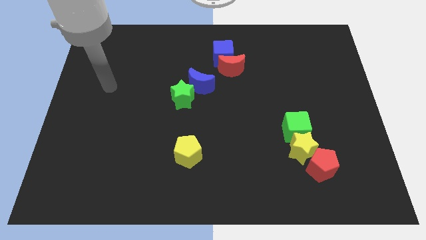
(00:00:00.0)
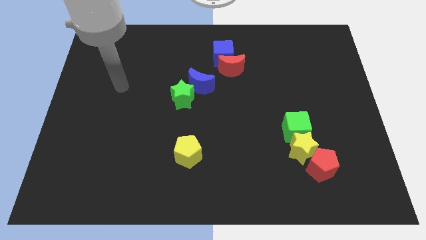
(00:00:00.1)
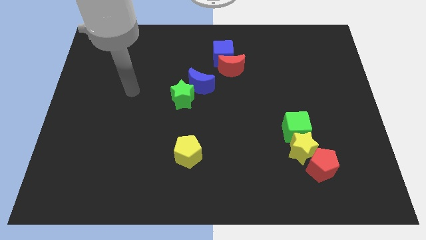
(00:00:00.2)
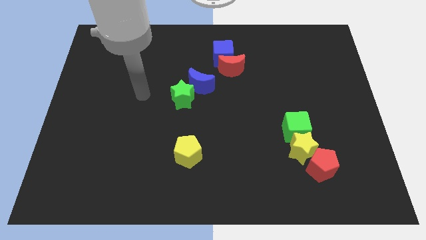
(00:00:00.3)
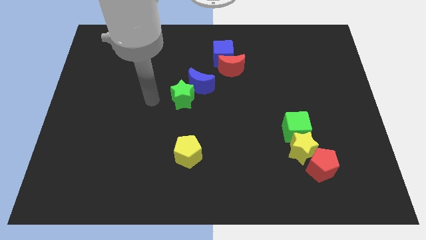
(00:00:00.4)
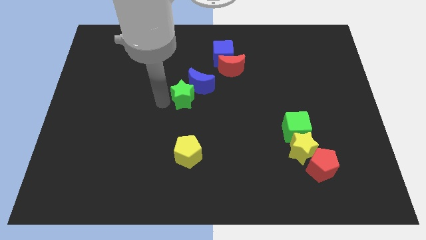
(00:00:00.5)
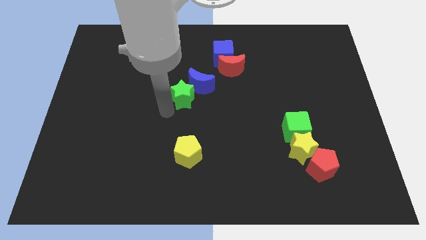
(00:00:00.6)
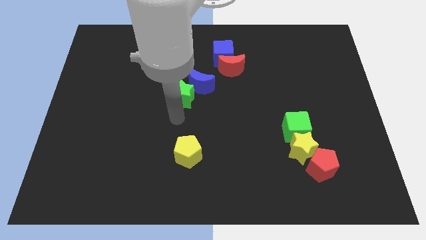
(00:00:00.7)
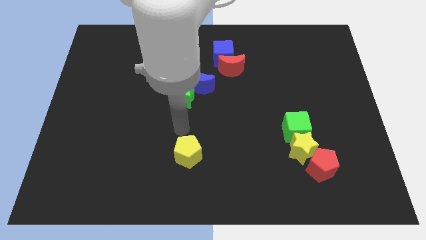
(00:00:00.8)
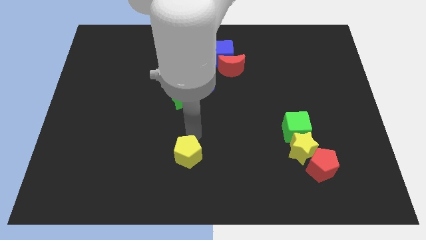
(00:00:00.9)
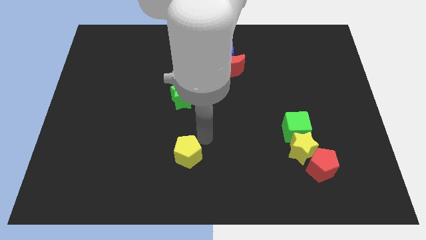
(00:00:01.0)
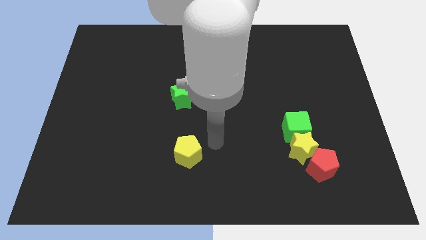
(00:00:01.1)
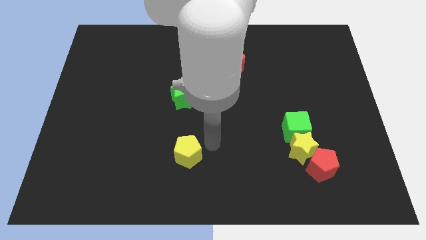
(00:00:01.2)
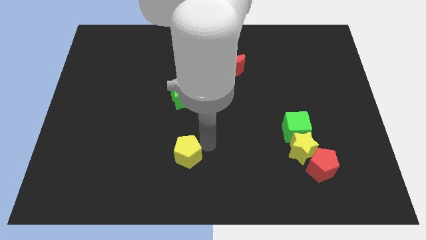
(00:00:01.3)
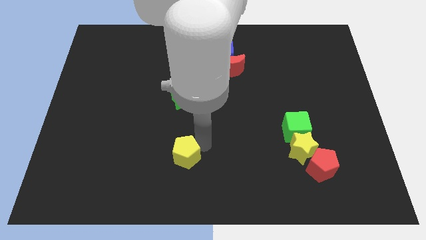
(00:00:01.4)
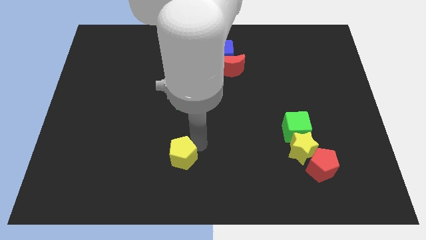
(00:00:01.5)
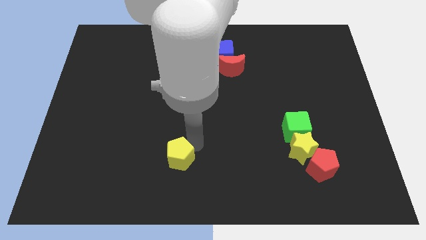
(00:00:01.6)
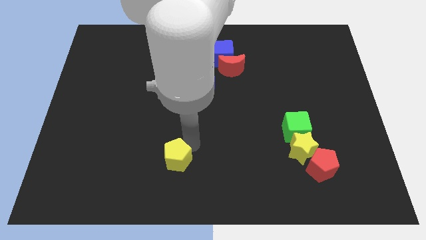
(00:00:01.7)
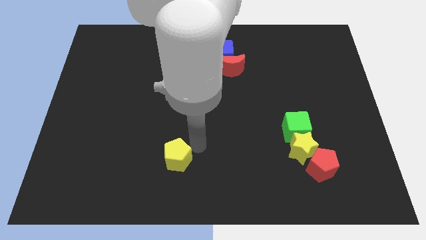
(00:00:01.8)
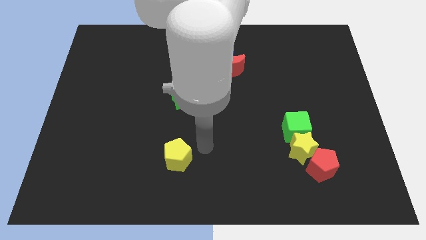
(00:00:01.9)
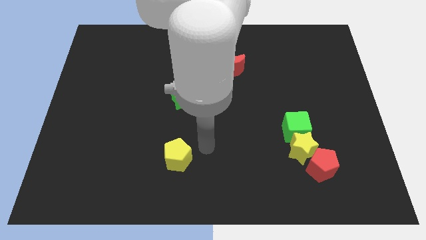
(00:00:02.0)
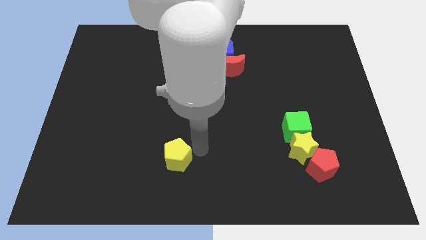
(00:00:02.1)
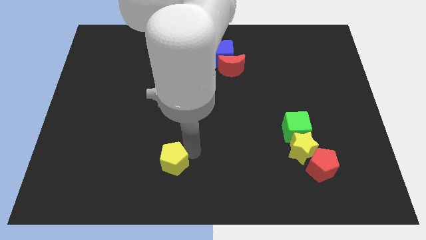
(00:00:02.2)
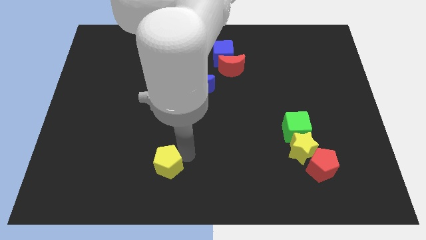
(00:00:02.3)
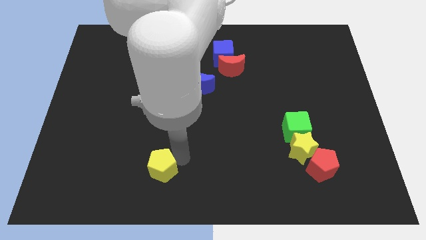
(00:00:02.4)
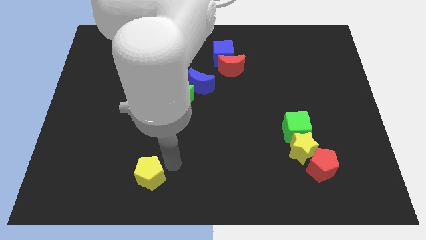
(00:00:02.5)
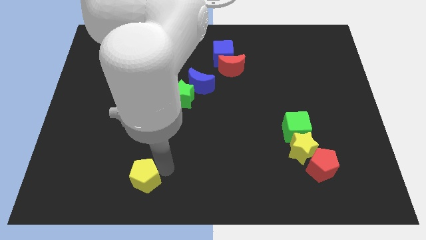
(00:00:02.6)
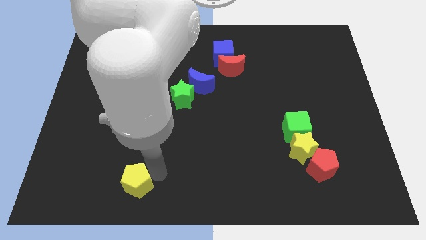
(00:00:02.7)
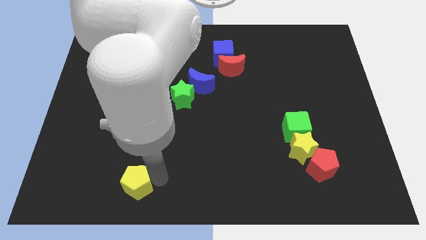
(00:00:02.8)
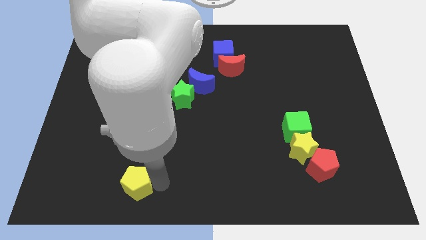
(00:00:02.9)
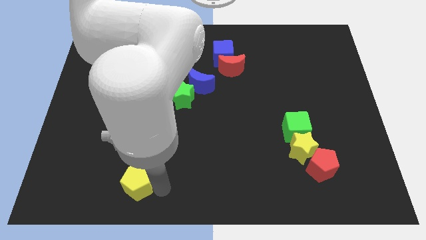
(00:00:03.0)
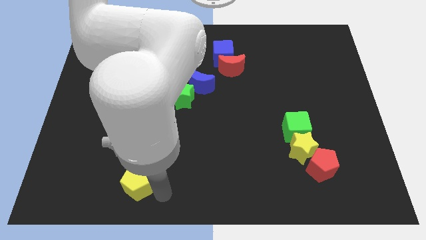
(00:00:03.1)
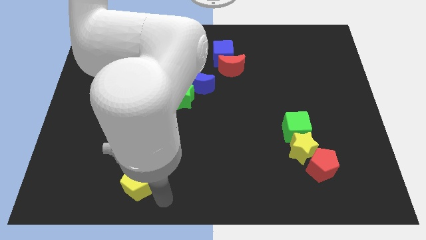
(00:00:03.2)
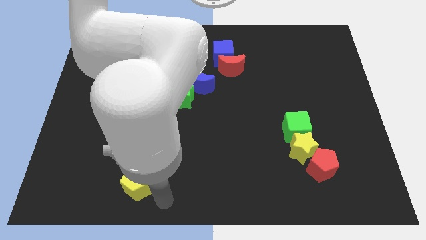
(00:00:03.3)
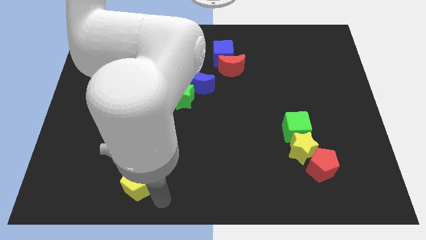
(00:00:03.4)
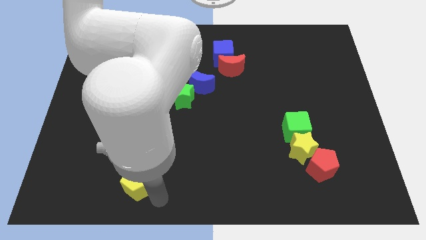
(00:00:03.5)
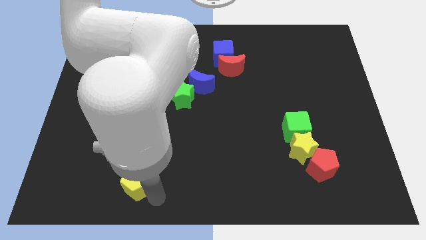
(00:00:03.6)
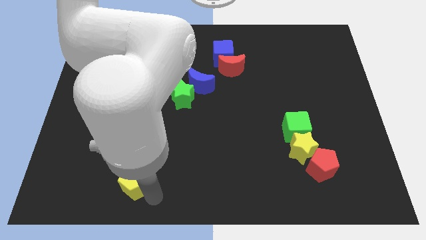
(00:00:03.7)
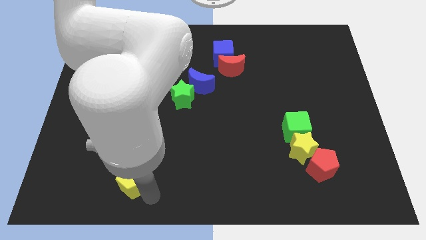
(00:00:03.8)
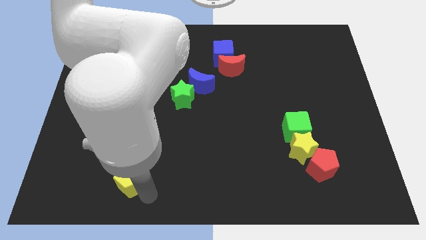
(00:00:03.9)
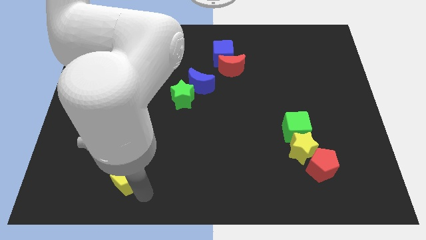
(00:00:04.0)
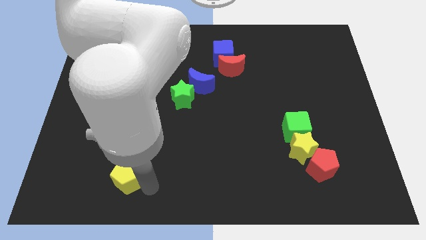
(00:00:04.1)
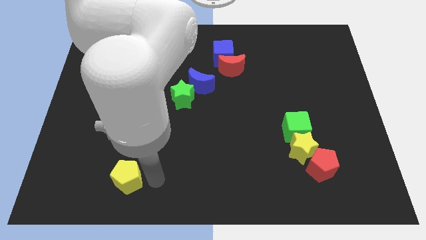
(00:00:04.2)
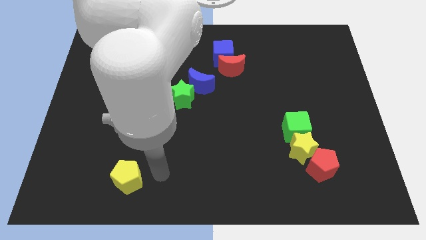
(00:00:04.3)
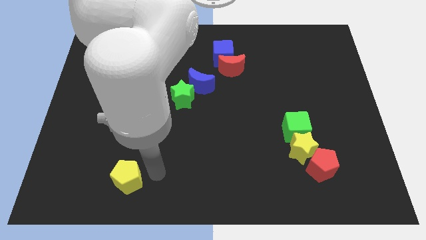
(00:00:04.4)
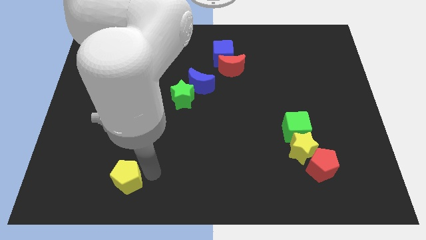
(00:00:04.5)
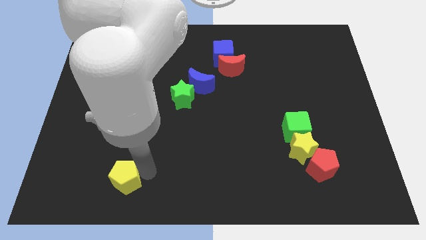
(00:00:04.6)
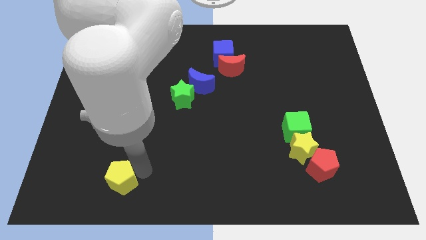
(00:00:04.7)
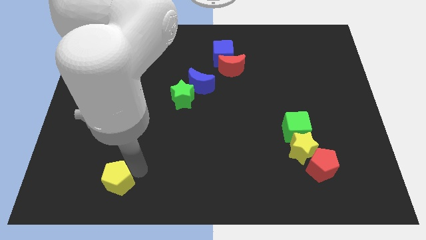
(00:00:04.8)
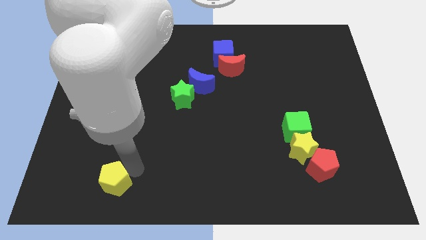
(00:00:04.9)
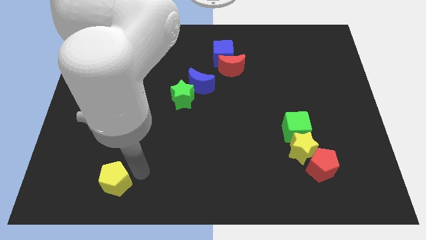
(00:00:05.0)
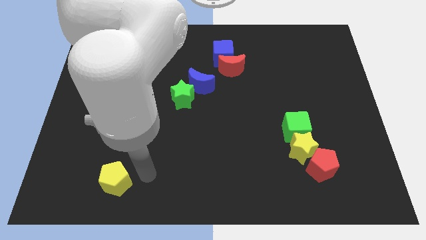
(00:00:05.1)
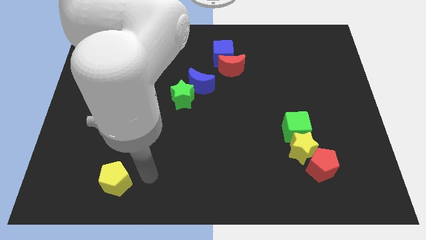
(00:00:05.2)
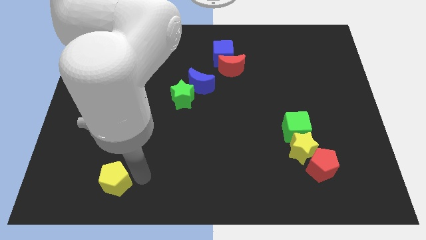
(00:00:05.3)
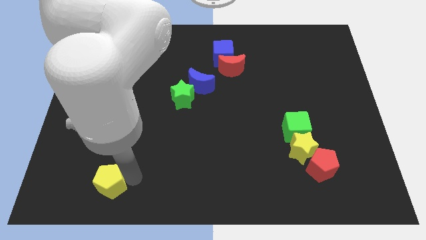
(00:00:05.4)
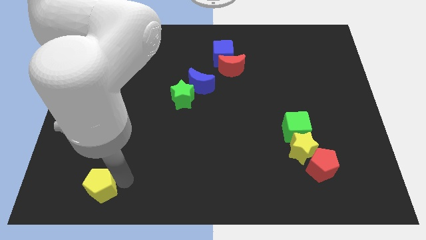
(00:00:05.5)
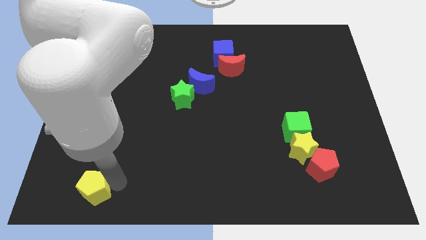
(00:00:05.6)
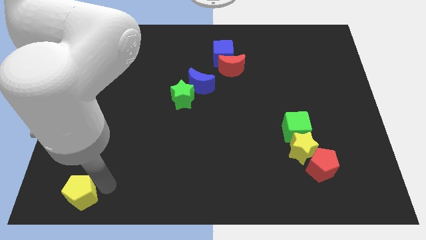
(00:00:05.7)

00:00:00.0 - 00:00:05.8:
slide the yellow pentagon to the bottom left of the board
